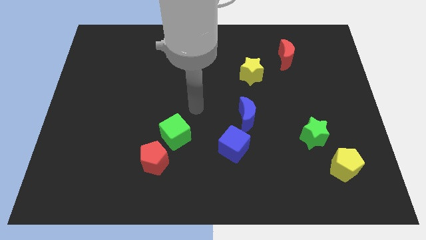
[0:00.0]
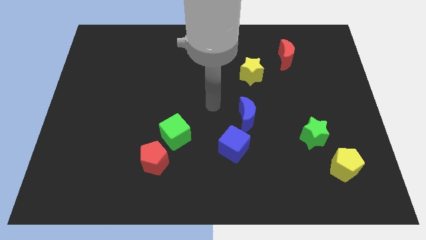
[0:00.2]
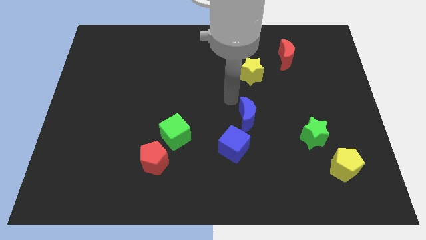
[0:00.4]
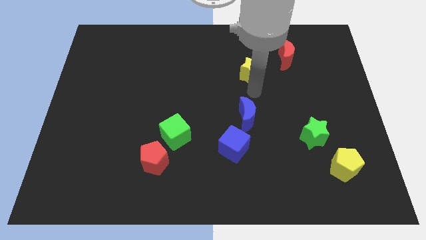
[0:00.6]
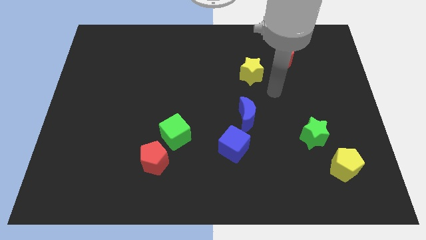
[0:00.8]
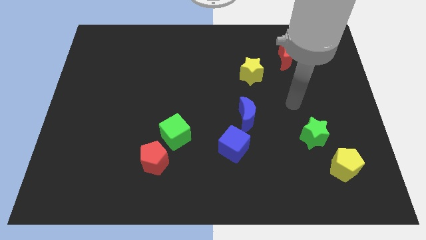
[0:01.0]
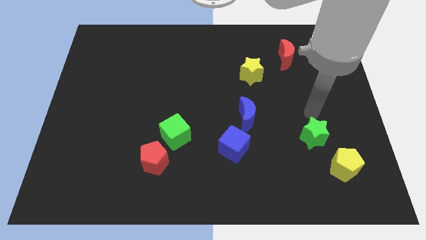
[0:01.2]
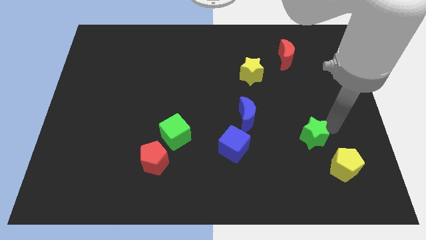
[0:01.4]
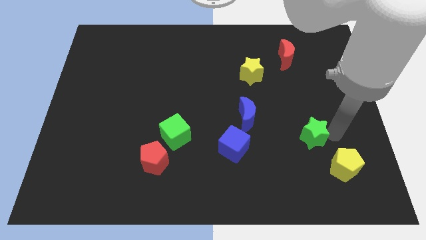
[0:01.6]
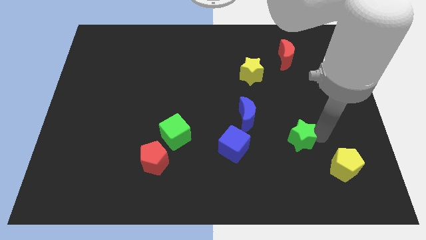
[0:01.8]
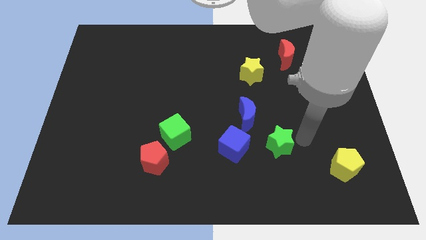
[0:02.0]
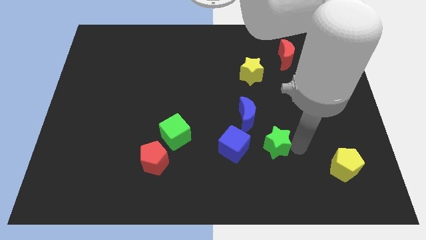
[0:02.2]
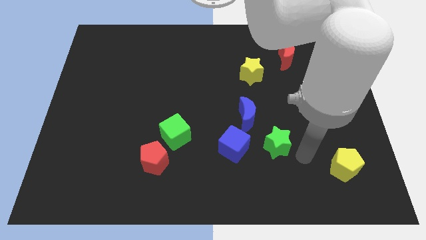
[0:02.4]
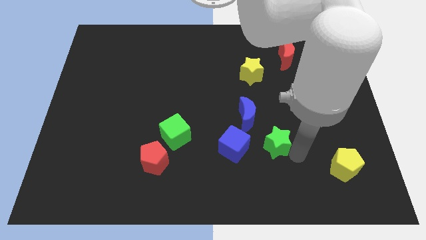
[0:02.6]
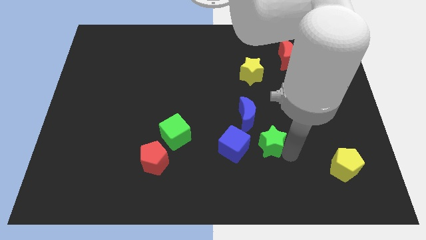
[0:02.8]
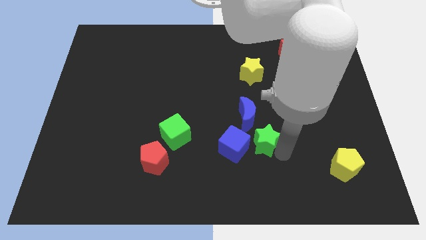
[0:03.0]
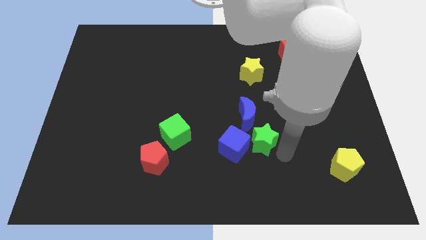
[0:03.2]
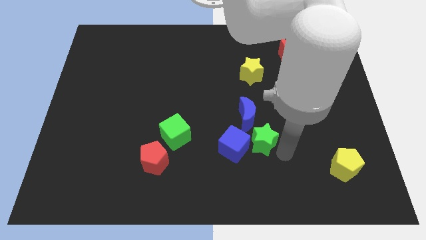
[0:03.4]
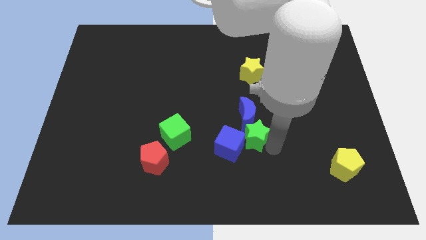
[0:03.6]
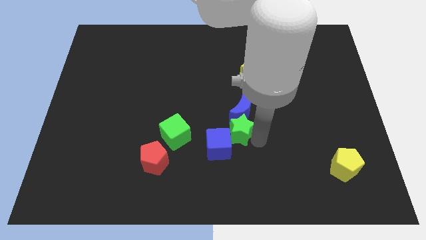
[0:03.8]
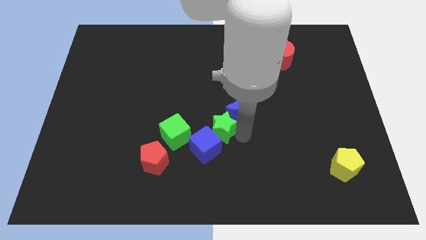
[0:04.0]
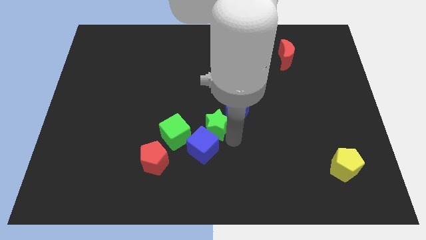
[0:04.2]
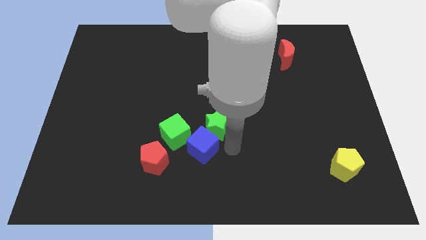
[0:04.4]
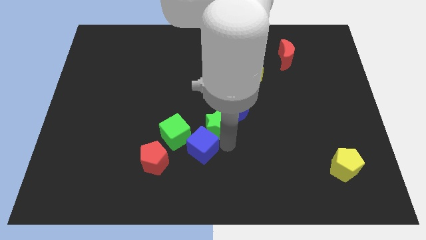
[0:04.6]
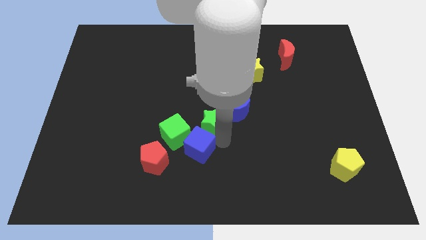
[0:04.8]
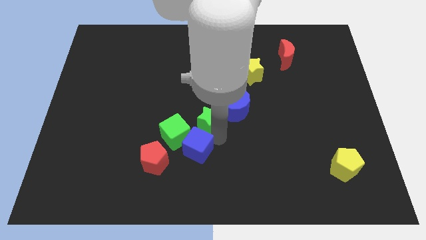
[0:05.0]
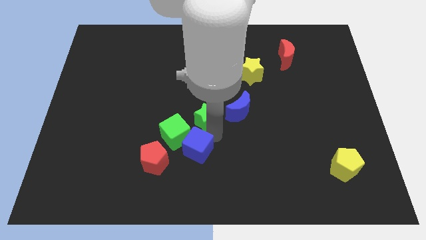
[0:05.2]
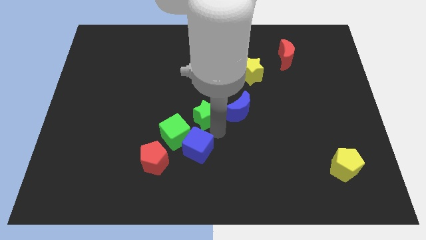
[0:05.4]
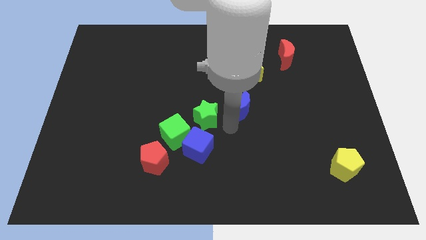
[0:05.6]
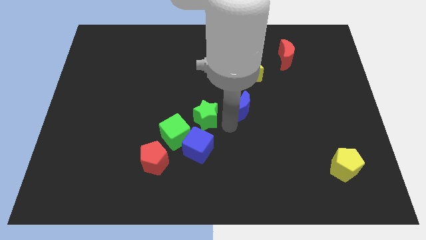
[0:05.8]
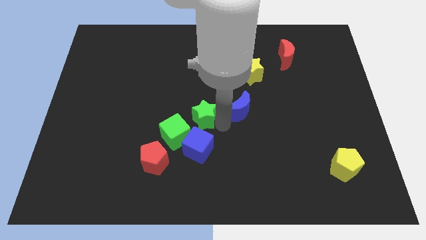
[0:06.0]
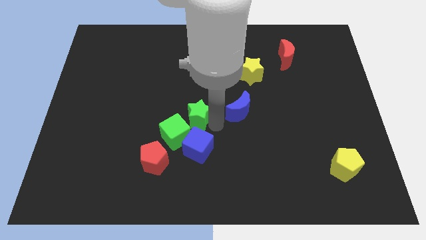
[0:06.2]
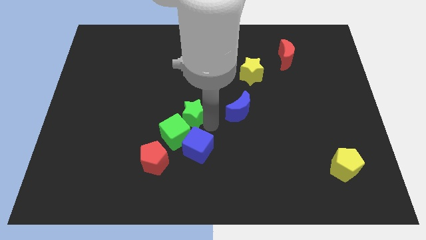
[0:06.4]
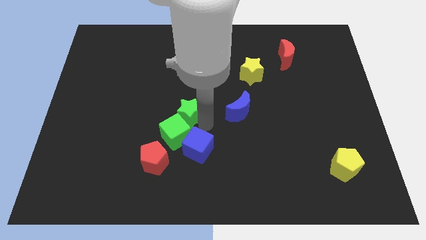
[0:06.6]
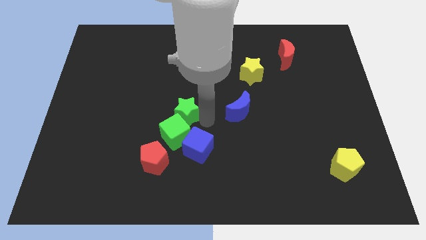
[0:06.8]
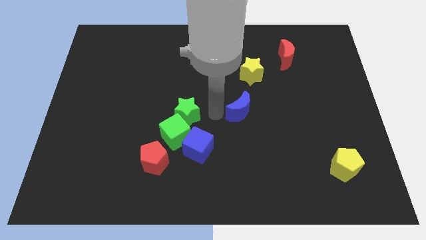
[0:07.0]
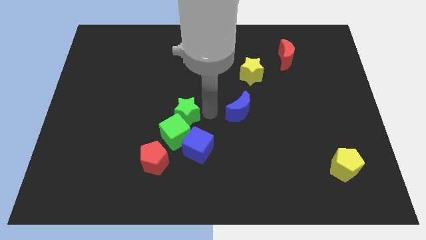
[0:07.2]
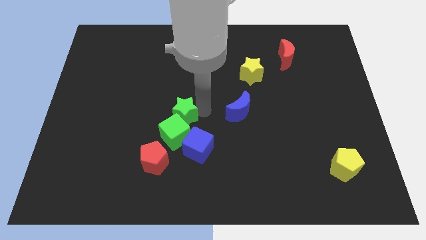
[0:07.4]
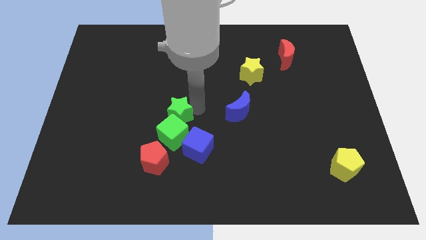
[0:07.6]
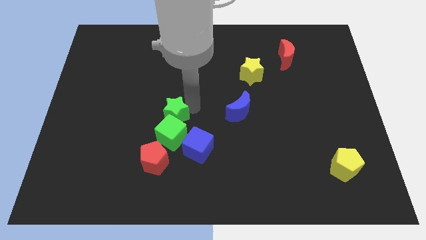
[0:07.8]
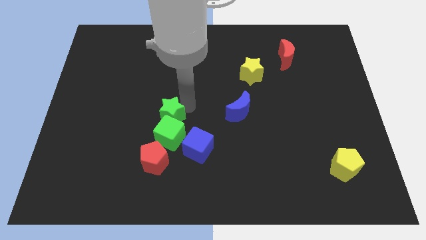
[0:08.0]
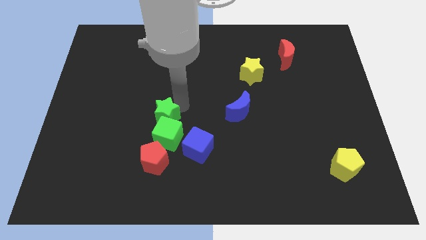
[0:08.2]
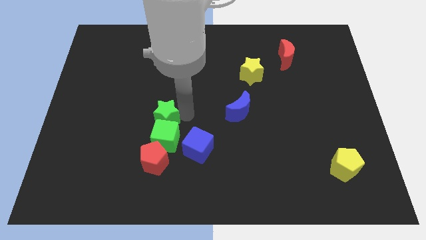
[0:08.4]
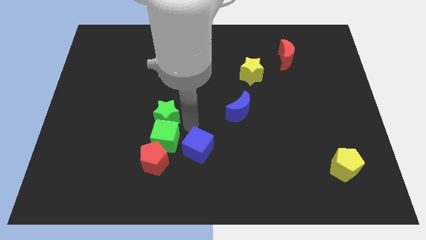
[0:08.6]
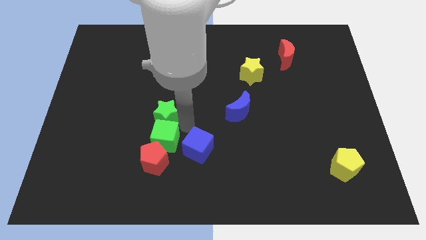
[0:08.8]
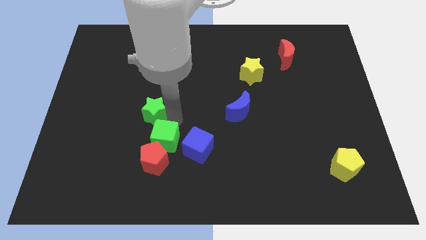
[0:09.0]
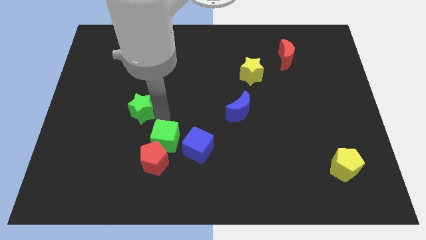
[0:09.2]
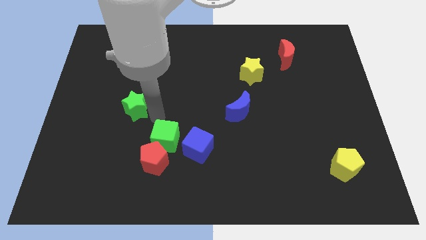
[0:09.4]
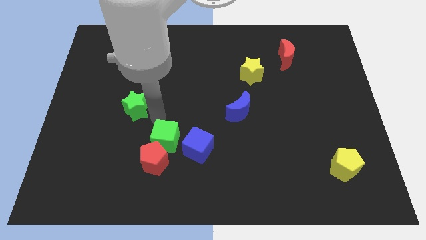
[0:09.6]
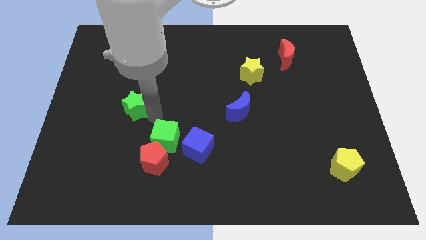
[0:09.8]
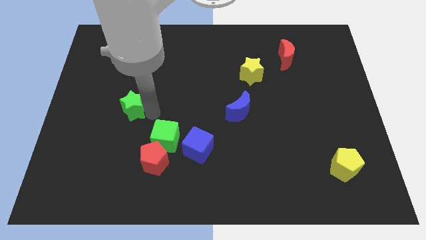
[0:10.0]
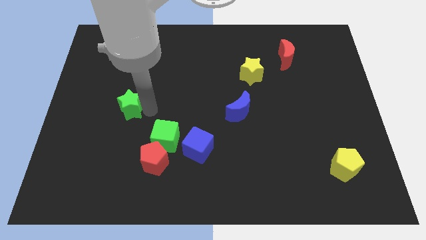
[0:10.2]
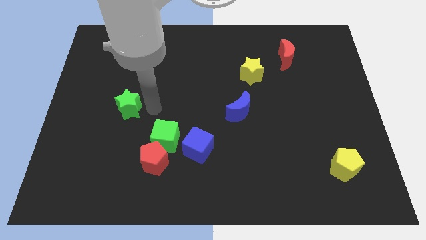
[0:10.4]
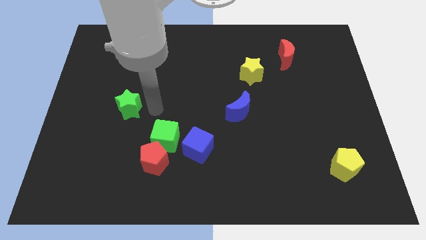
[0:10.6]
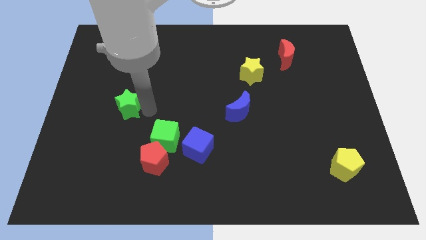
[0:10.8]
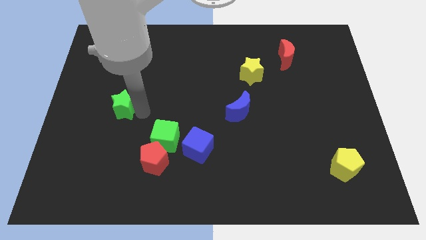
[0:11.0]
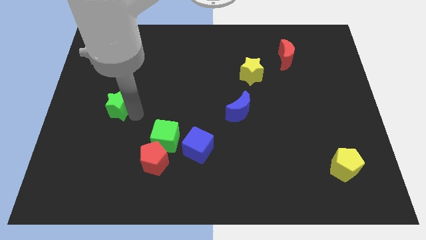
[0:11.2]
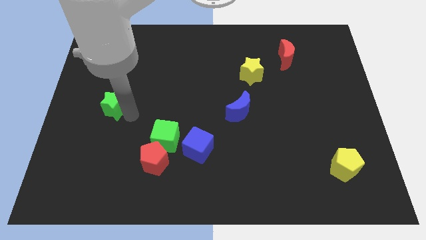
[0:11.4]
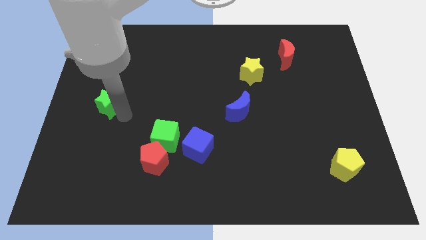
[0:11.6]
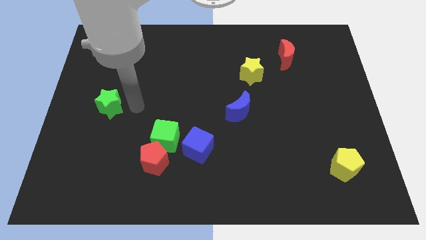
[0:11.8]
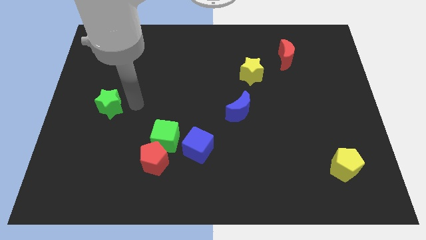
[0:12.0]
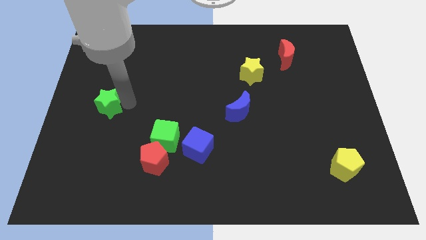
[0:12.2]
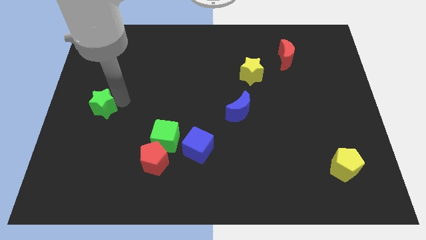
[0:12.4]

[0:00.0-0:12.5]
put the green star to the left side
